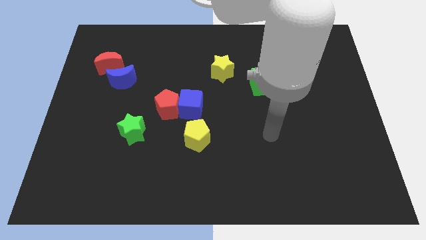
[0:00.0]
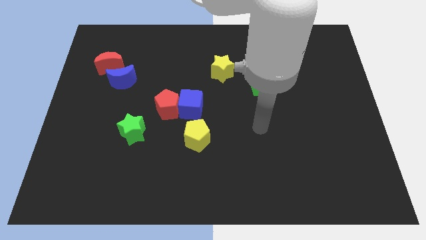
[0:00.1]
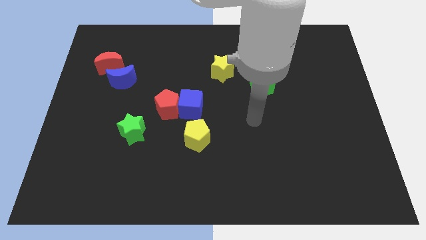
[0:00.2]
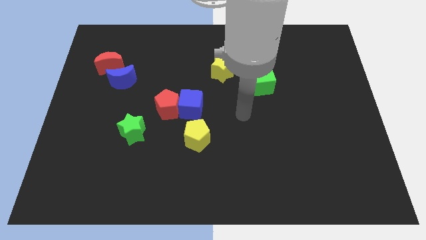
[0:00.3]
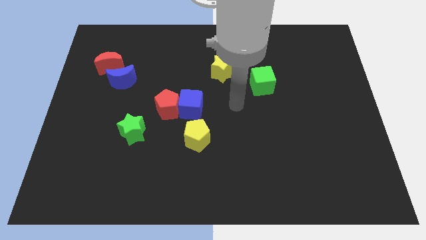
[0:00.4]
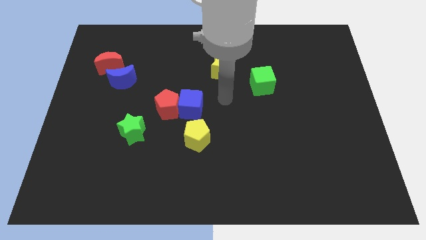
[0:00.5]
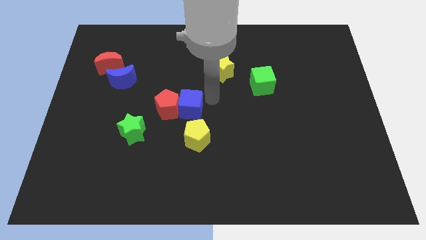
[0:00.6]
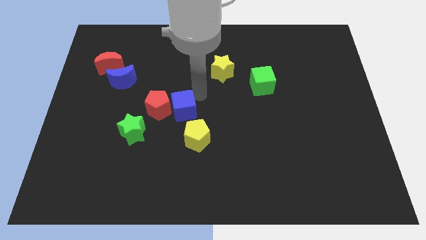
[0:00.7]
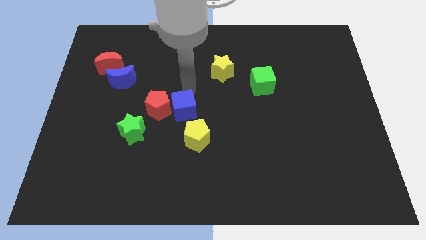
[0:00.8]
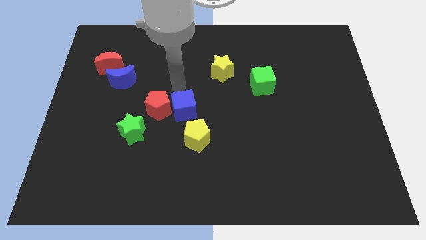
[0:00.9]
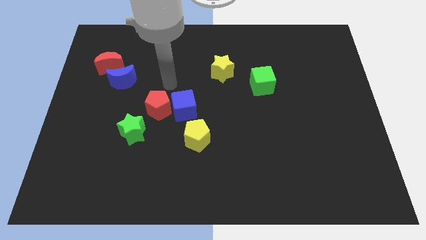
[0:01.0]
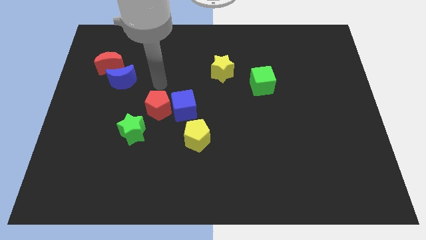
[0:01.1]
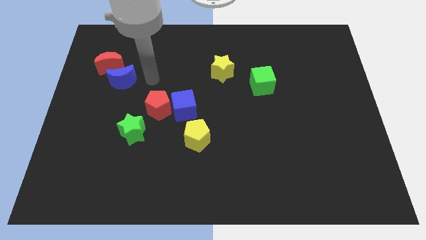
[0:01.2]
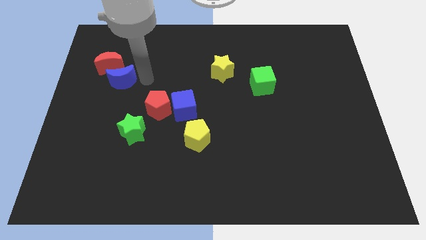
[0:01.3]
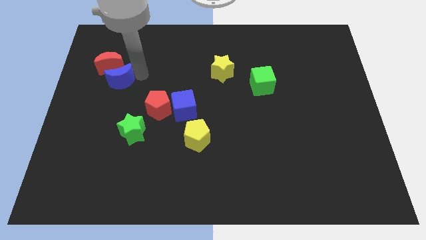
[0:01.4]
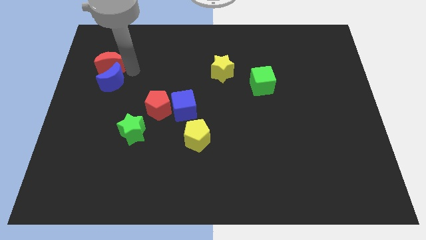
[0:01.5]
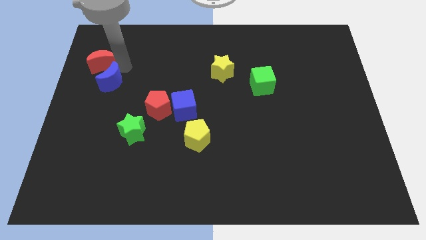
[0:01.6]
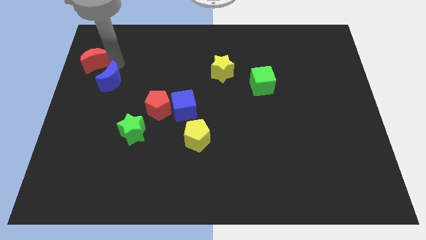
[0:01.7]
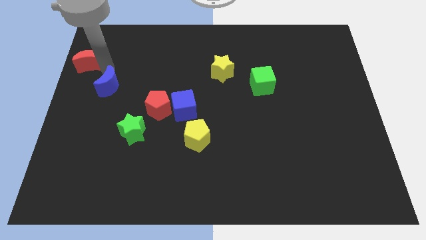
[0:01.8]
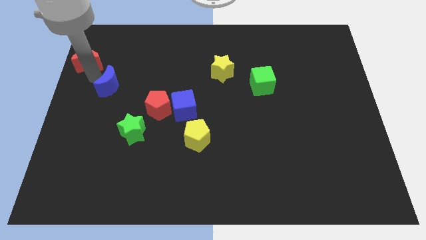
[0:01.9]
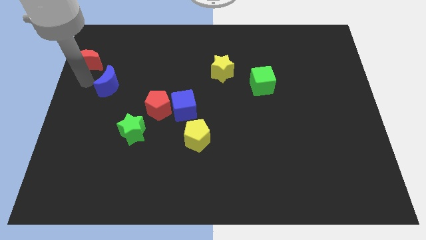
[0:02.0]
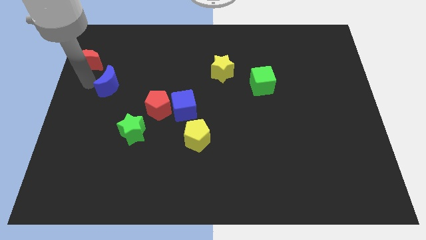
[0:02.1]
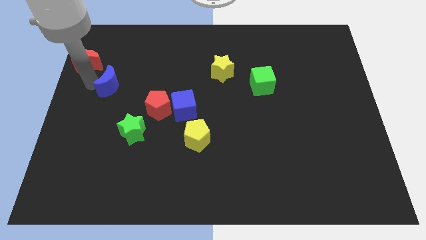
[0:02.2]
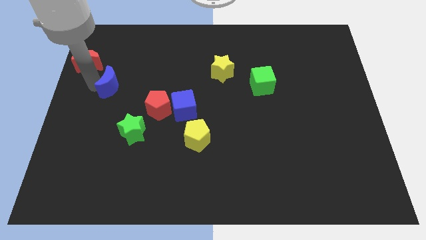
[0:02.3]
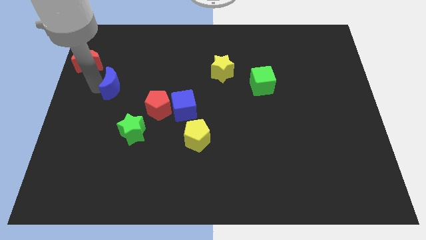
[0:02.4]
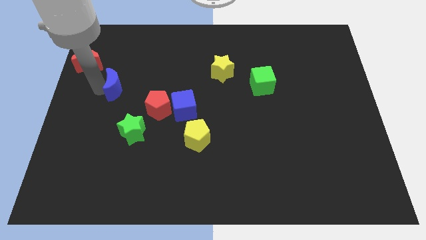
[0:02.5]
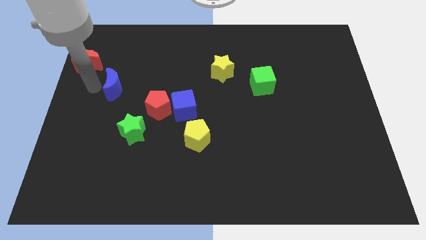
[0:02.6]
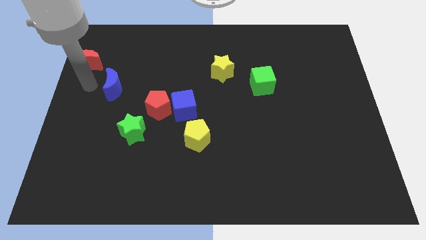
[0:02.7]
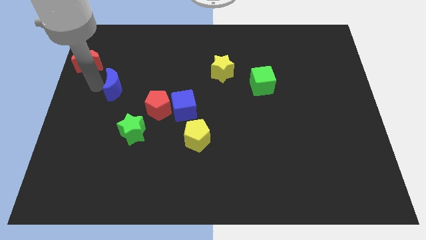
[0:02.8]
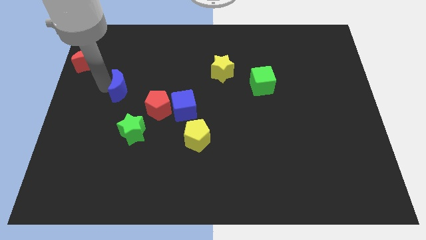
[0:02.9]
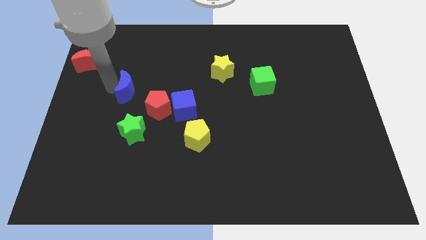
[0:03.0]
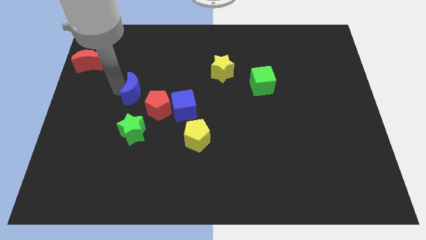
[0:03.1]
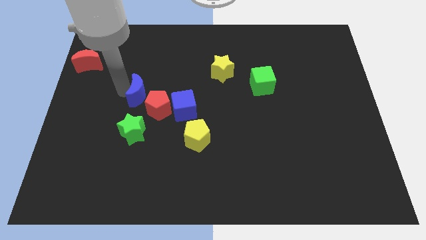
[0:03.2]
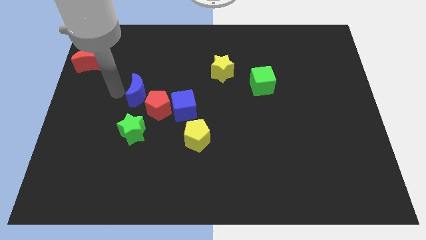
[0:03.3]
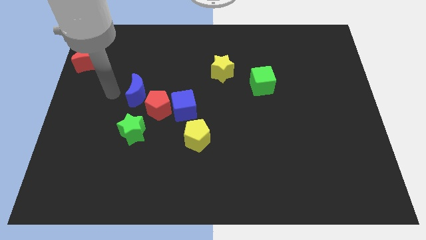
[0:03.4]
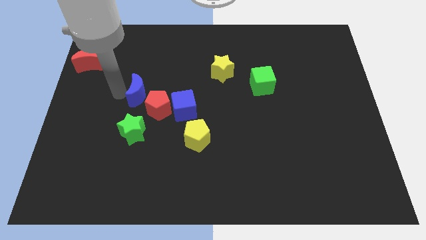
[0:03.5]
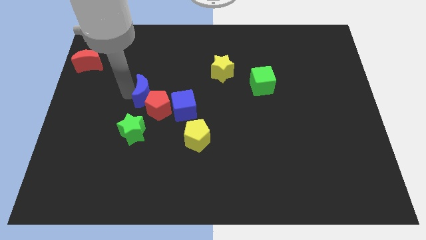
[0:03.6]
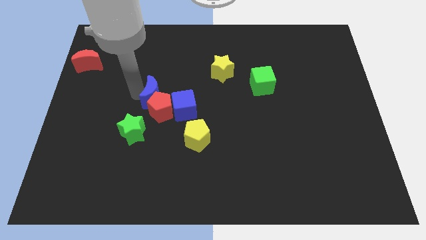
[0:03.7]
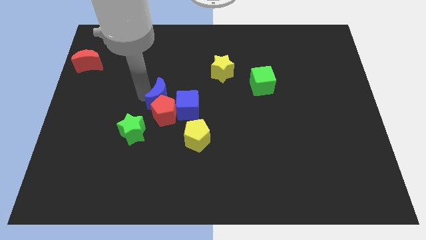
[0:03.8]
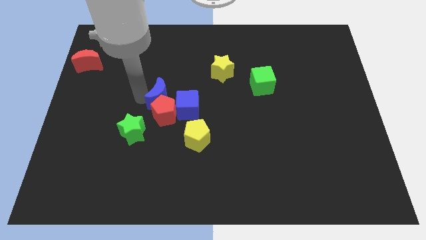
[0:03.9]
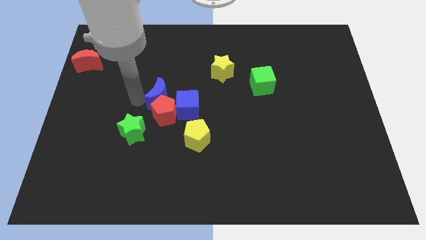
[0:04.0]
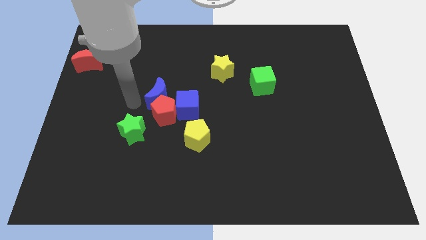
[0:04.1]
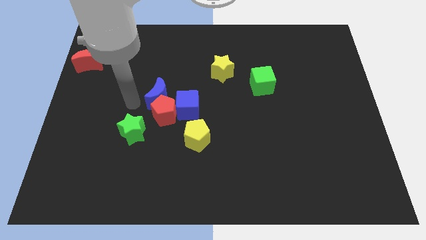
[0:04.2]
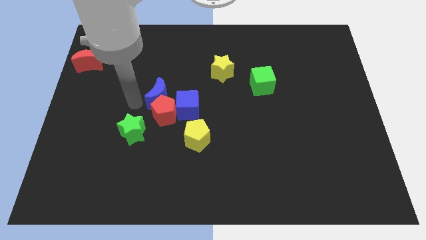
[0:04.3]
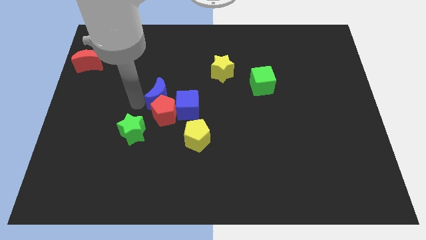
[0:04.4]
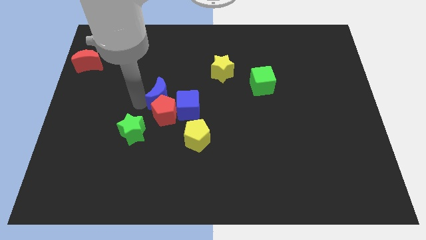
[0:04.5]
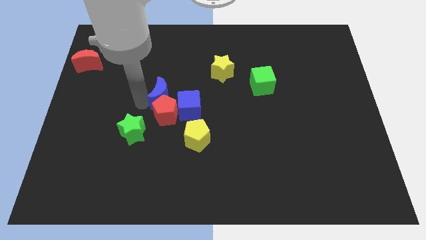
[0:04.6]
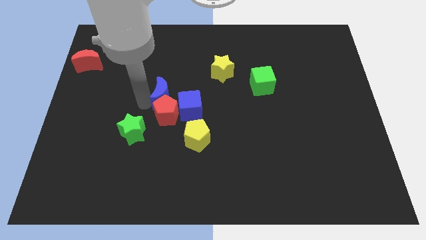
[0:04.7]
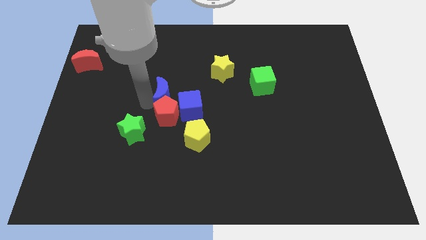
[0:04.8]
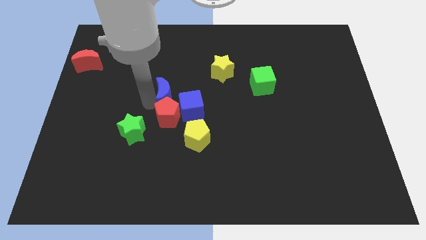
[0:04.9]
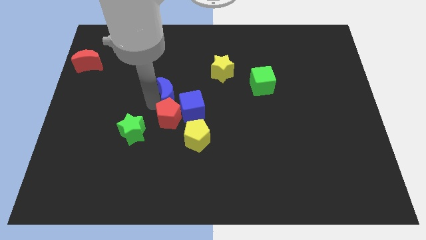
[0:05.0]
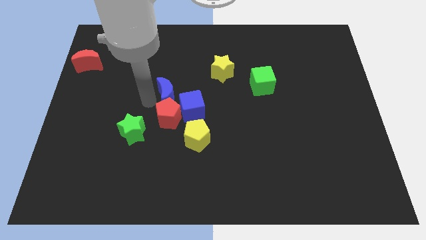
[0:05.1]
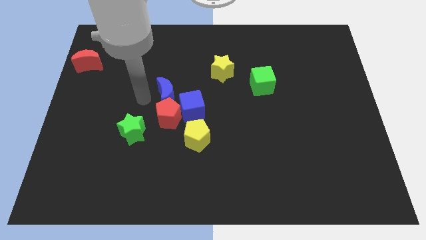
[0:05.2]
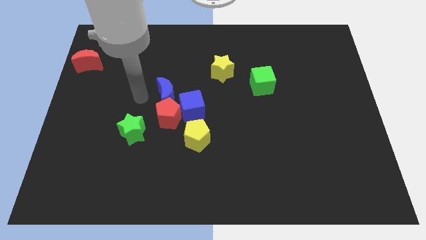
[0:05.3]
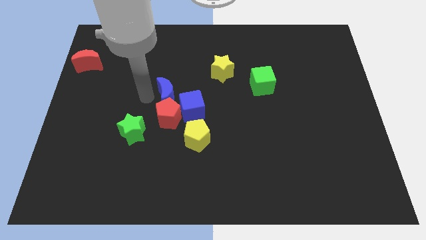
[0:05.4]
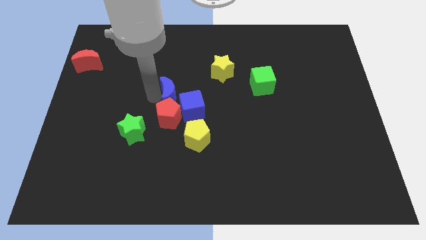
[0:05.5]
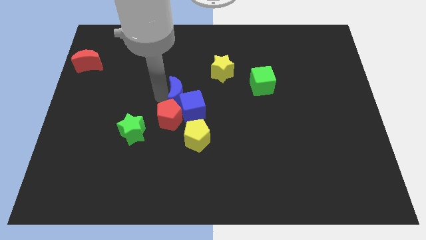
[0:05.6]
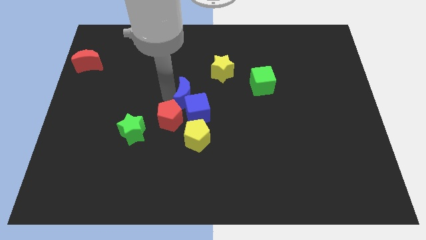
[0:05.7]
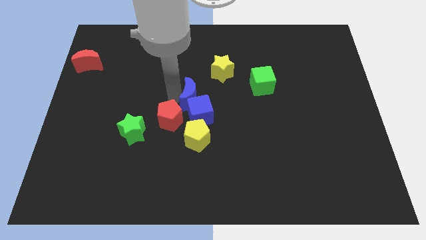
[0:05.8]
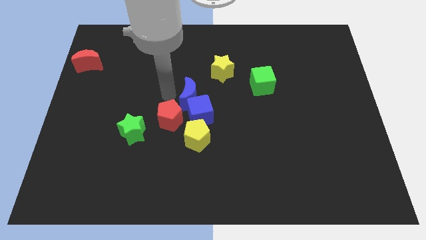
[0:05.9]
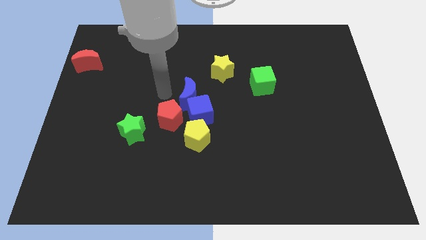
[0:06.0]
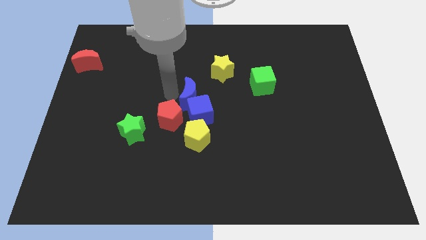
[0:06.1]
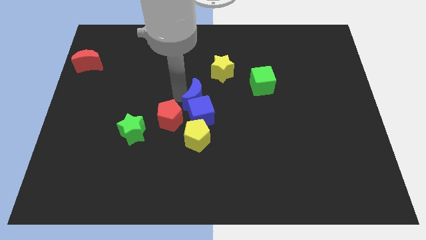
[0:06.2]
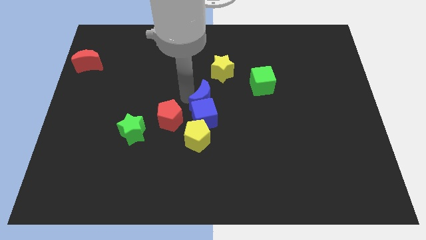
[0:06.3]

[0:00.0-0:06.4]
move the blue moon to the bottom of the yellow star

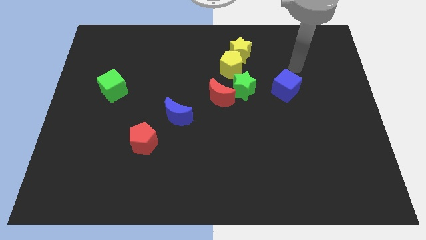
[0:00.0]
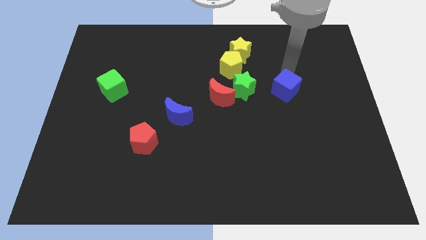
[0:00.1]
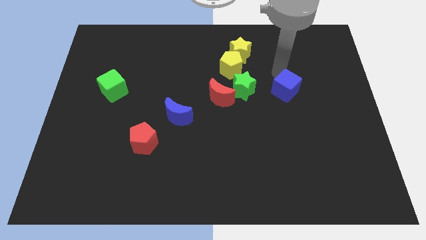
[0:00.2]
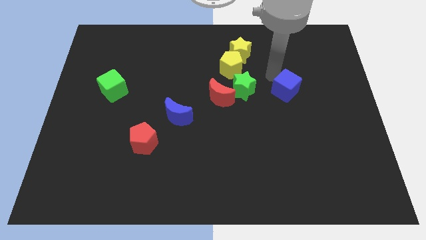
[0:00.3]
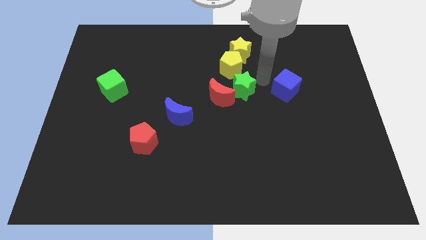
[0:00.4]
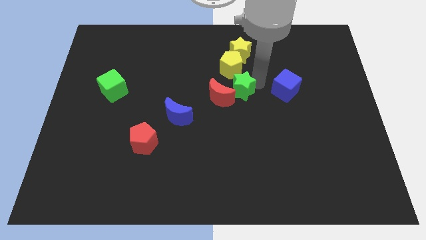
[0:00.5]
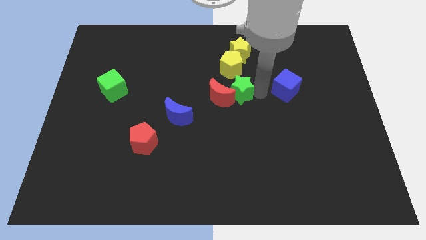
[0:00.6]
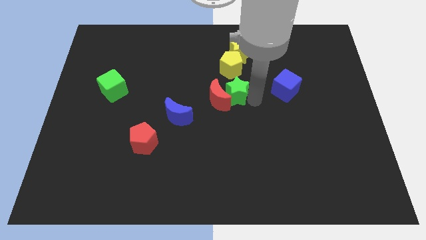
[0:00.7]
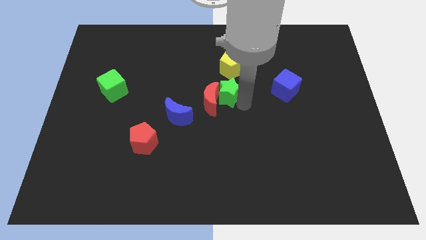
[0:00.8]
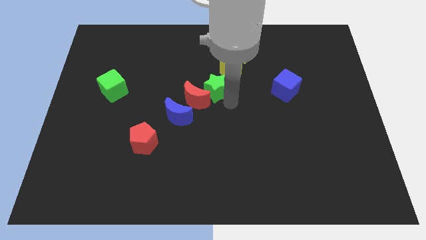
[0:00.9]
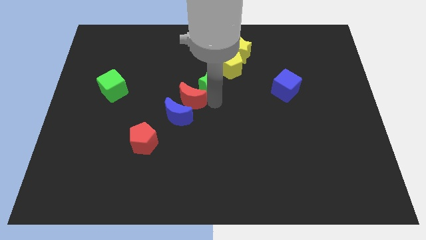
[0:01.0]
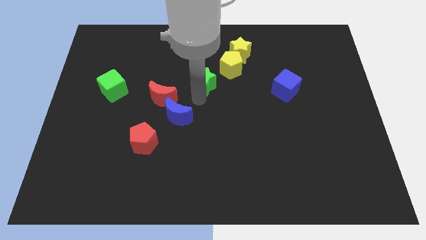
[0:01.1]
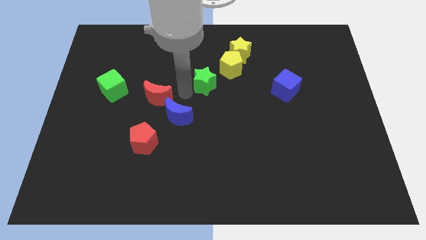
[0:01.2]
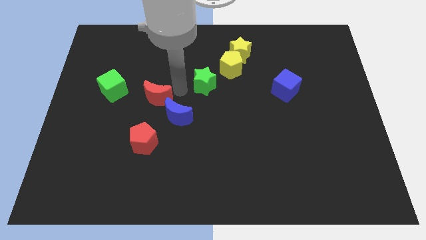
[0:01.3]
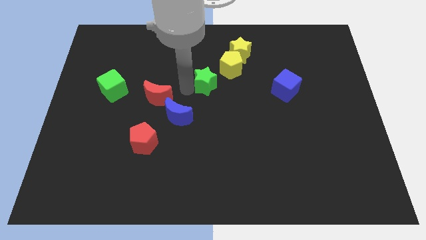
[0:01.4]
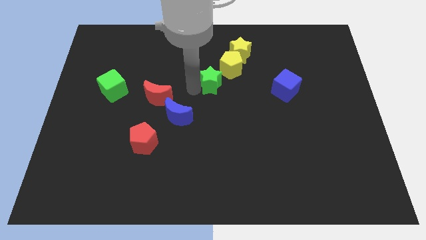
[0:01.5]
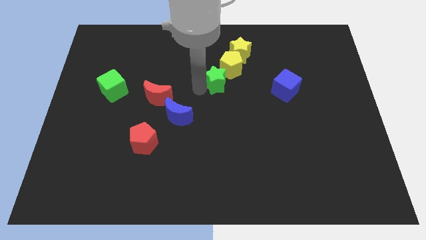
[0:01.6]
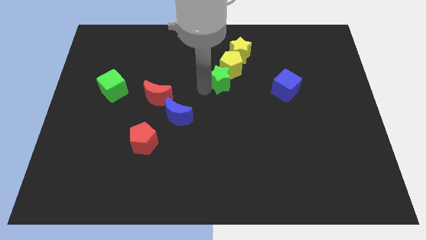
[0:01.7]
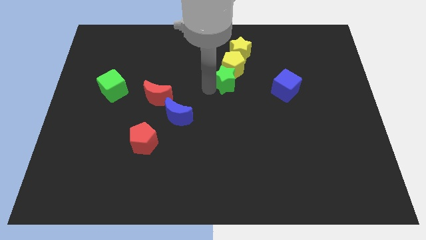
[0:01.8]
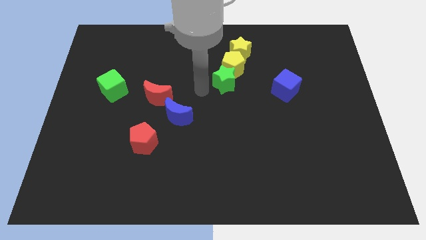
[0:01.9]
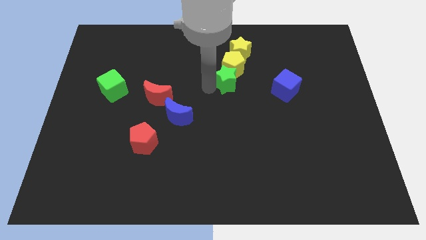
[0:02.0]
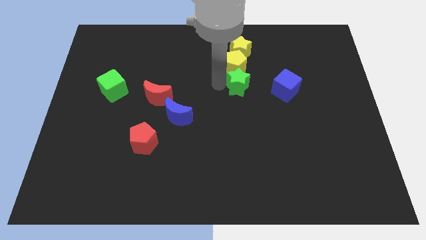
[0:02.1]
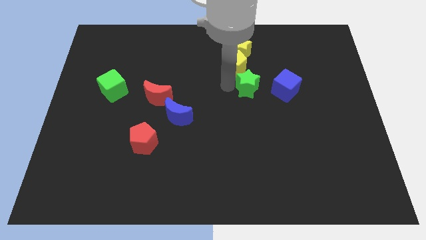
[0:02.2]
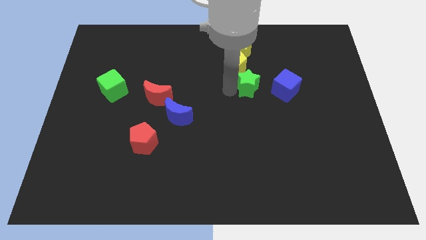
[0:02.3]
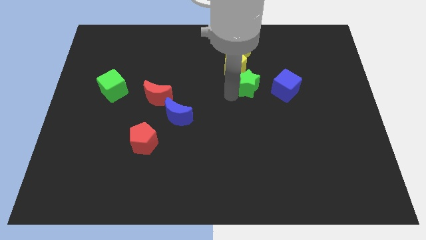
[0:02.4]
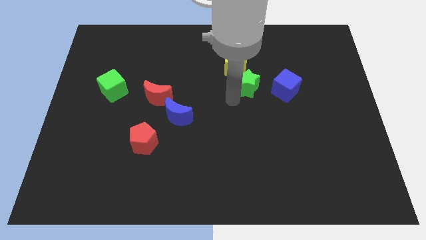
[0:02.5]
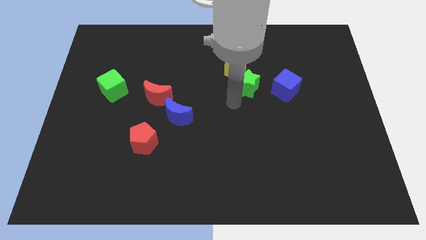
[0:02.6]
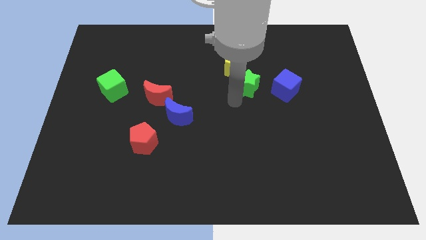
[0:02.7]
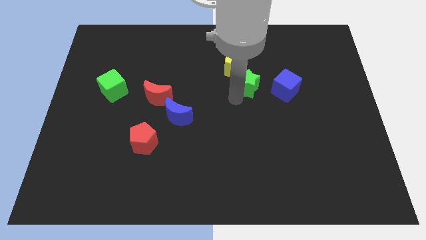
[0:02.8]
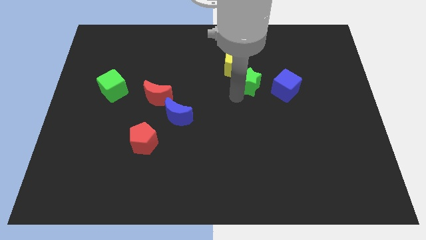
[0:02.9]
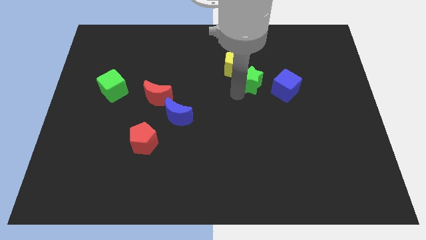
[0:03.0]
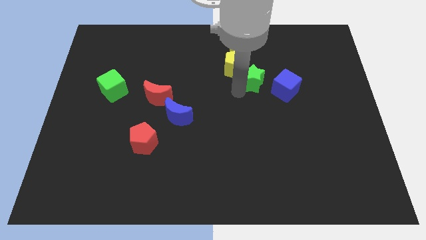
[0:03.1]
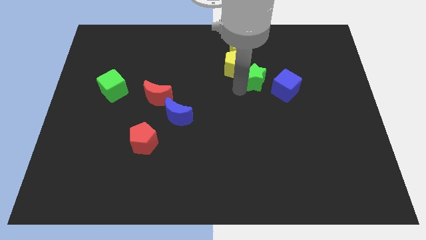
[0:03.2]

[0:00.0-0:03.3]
put the green star to the bottom right of the yellow star
